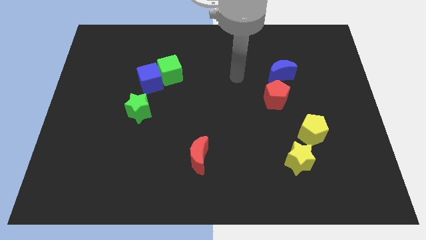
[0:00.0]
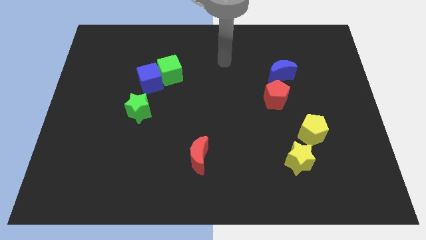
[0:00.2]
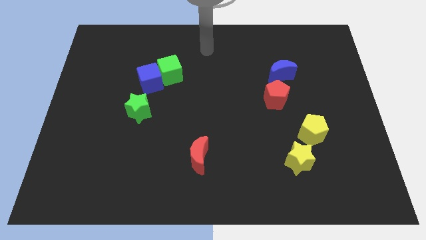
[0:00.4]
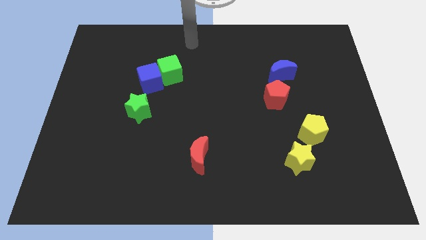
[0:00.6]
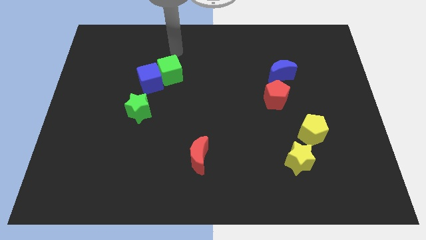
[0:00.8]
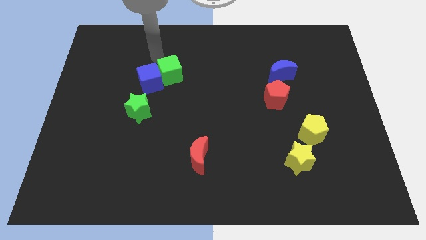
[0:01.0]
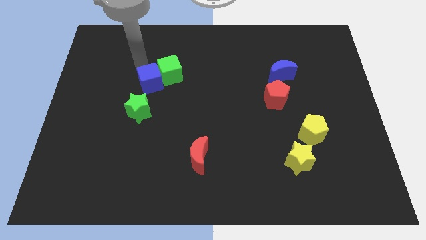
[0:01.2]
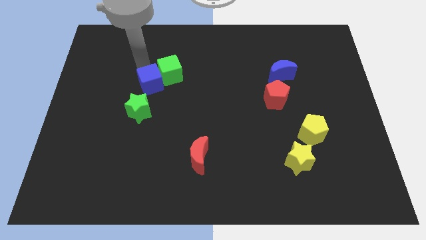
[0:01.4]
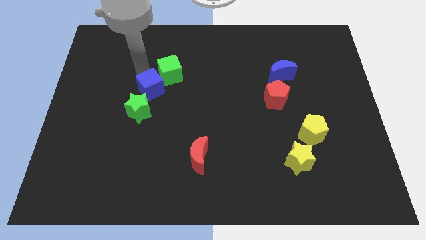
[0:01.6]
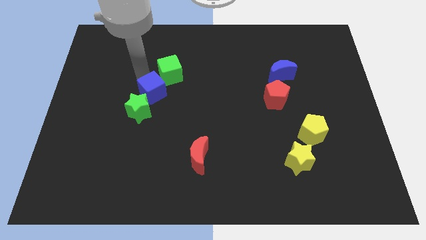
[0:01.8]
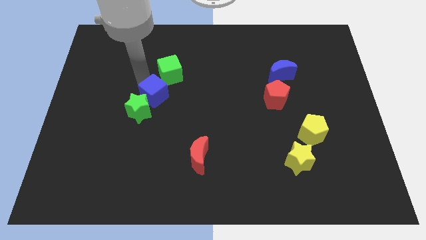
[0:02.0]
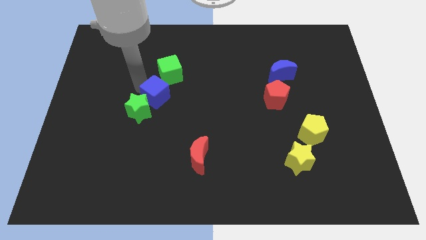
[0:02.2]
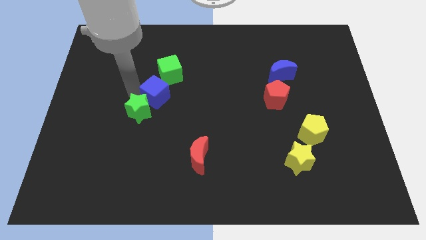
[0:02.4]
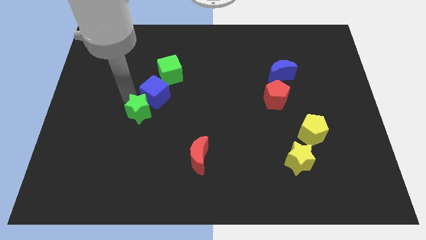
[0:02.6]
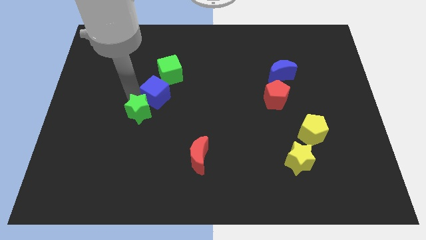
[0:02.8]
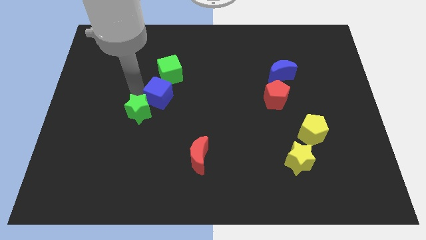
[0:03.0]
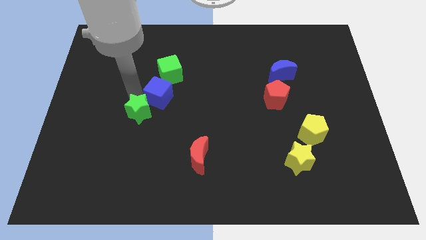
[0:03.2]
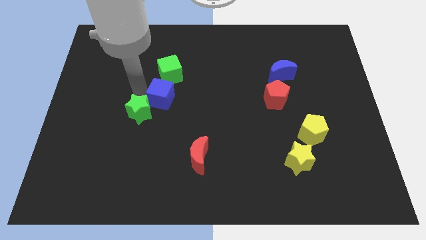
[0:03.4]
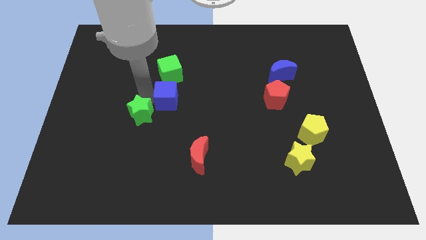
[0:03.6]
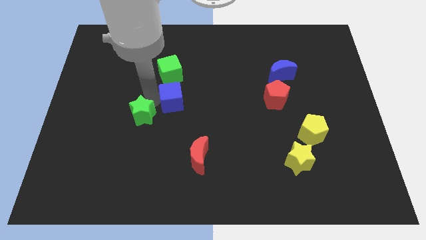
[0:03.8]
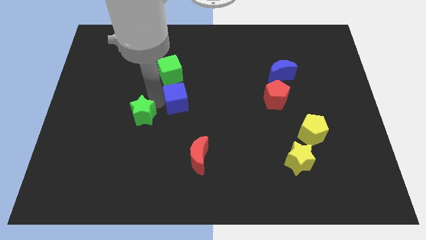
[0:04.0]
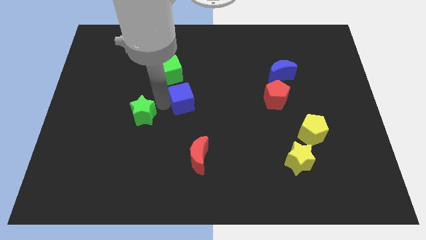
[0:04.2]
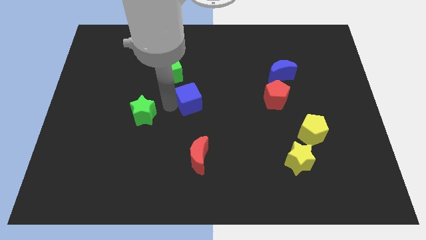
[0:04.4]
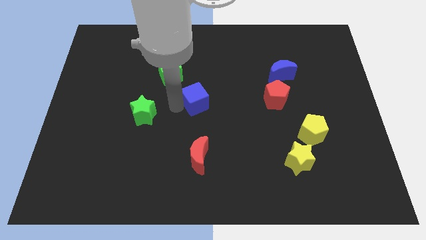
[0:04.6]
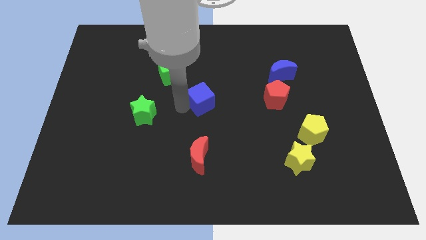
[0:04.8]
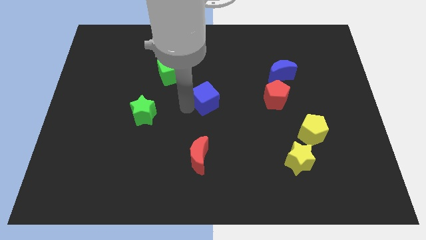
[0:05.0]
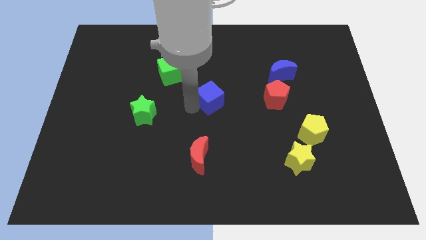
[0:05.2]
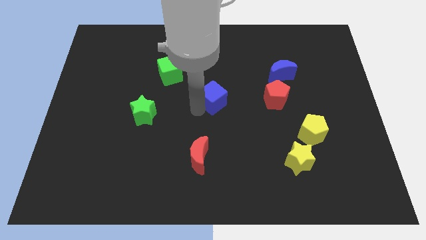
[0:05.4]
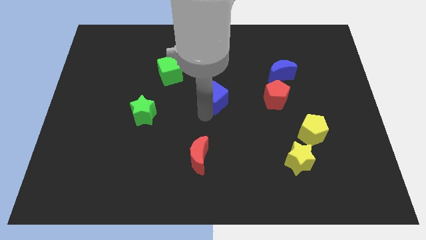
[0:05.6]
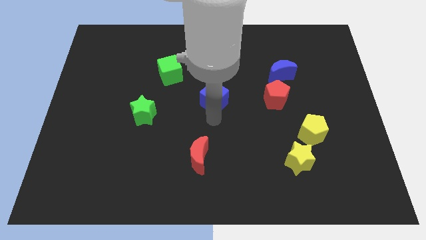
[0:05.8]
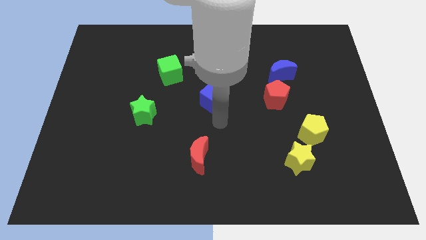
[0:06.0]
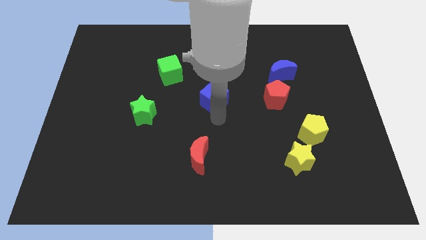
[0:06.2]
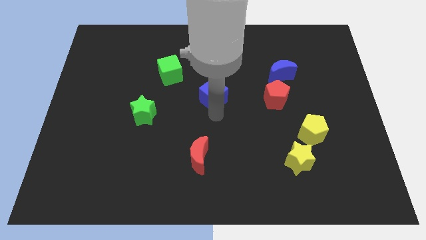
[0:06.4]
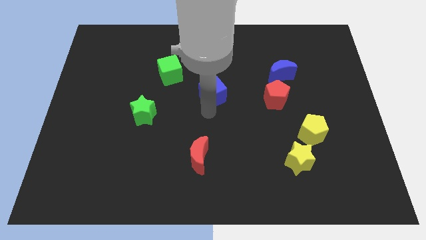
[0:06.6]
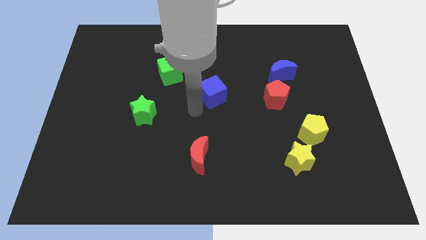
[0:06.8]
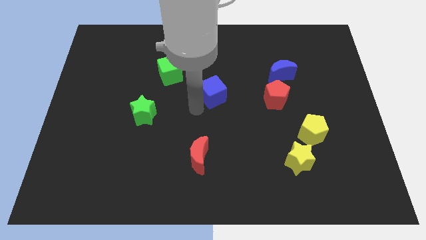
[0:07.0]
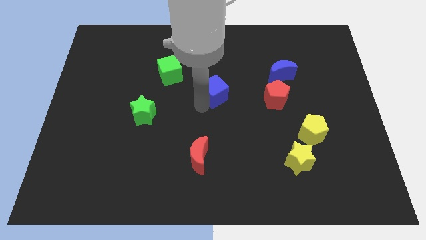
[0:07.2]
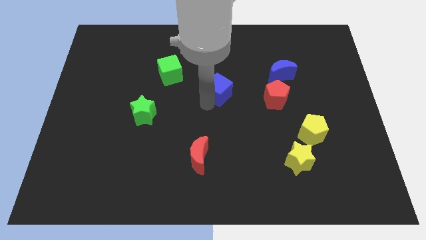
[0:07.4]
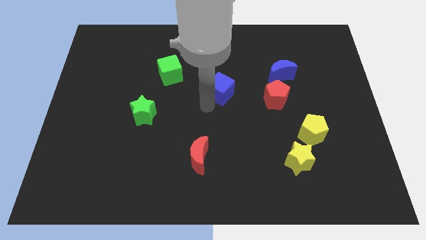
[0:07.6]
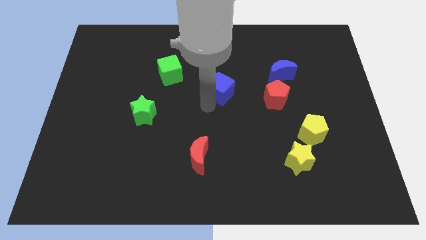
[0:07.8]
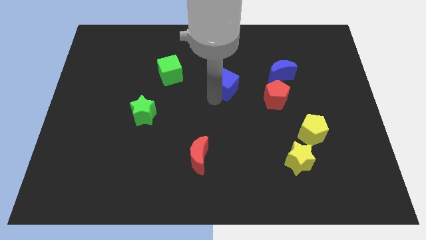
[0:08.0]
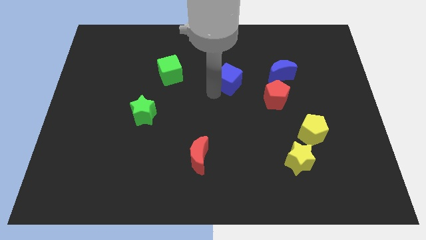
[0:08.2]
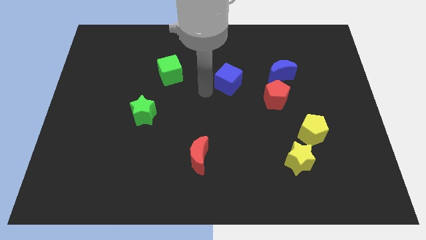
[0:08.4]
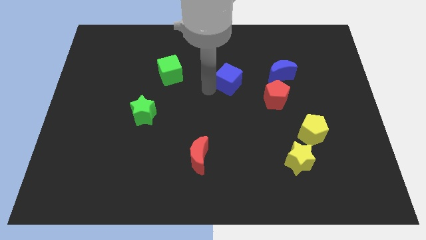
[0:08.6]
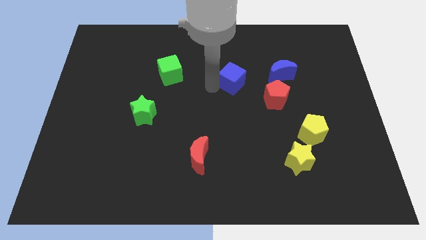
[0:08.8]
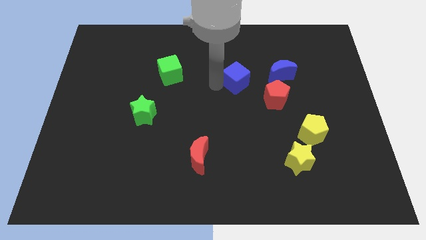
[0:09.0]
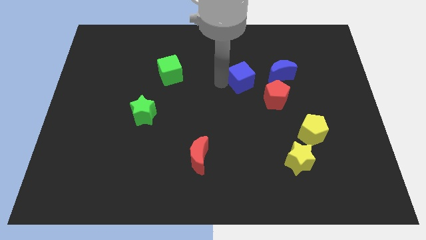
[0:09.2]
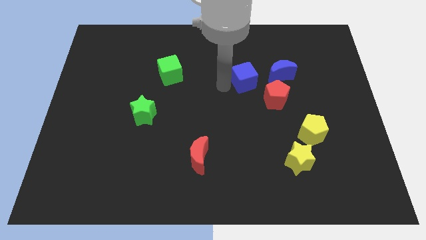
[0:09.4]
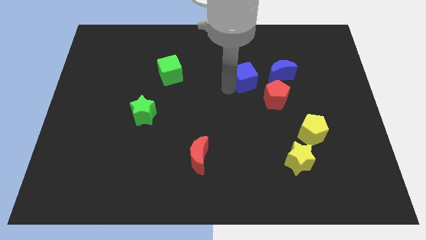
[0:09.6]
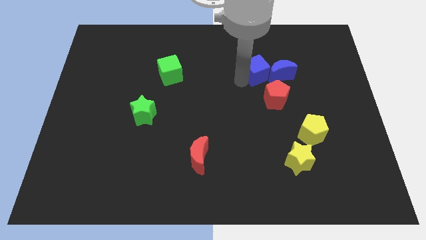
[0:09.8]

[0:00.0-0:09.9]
put the blue cube to the top side of the red pentagon
